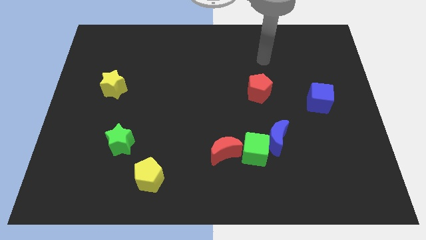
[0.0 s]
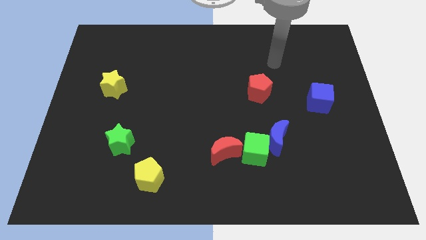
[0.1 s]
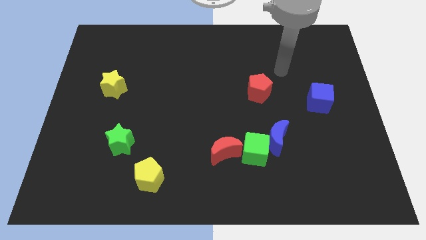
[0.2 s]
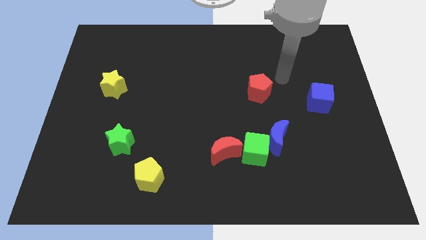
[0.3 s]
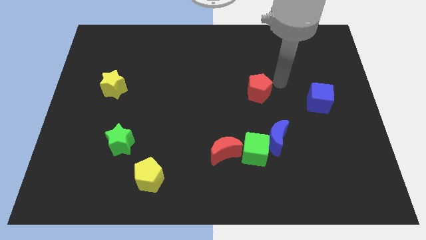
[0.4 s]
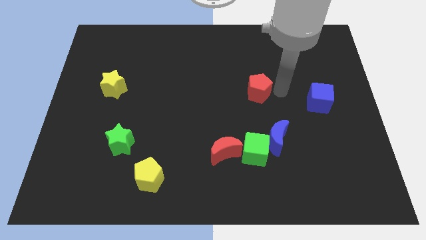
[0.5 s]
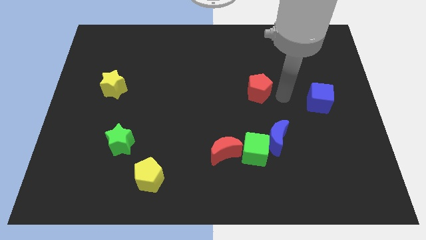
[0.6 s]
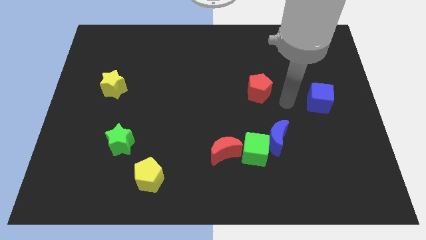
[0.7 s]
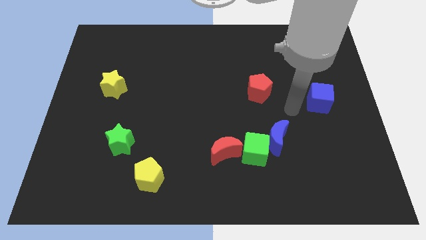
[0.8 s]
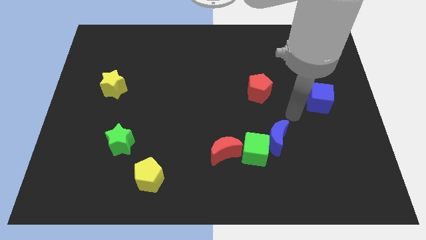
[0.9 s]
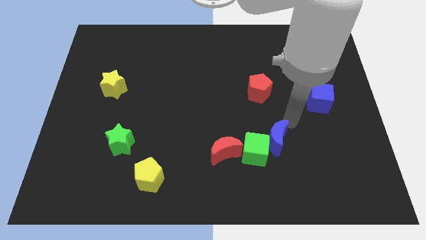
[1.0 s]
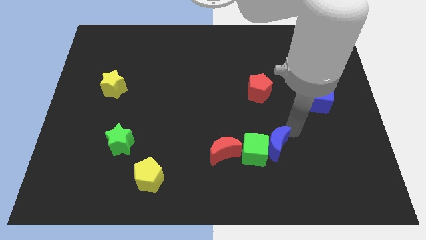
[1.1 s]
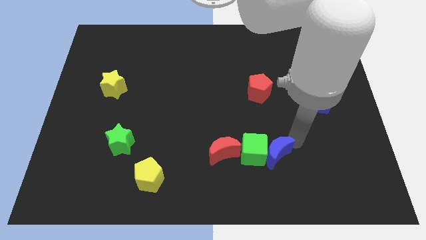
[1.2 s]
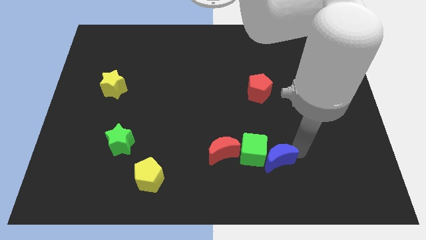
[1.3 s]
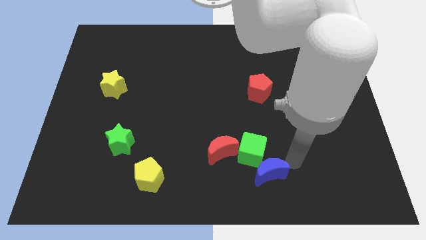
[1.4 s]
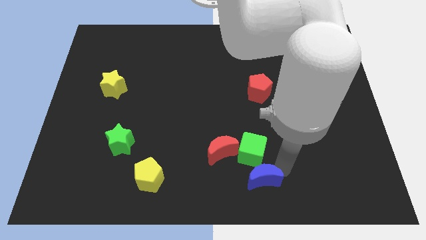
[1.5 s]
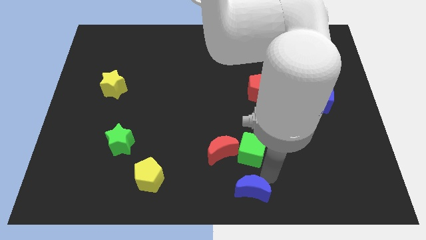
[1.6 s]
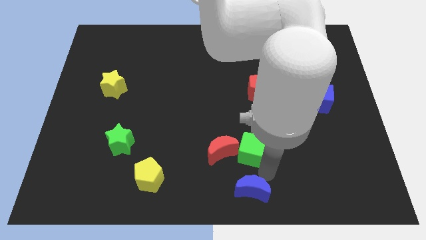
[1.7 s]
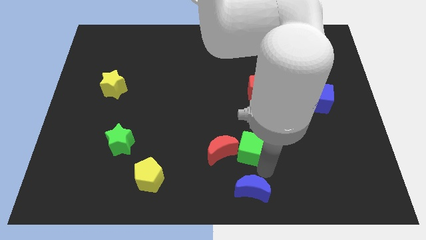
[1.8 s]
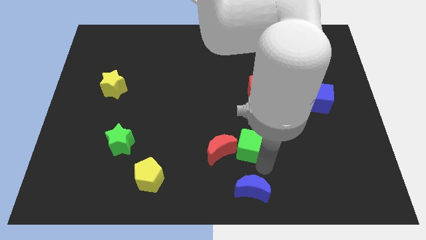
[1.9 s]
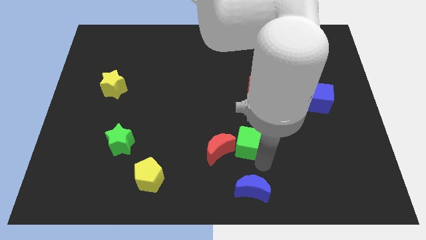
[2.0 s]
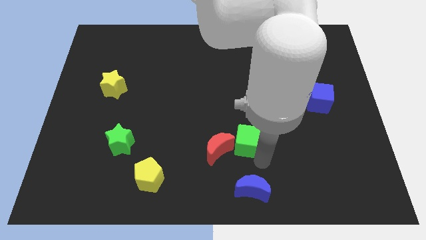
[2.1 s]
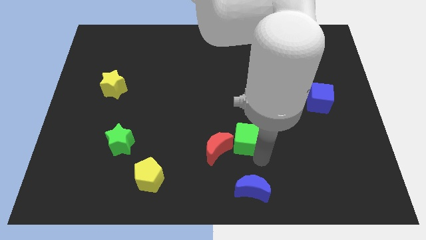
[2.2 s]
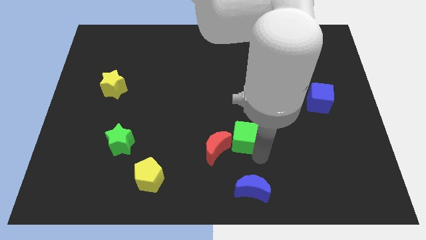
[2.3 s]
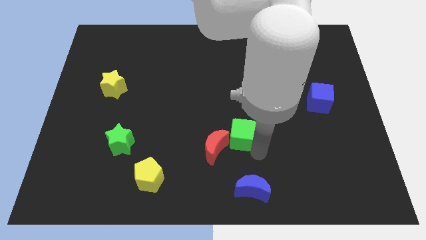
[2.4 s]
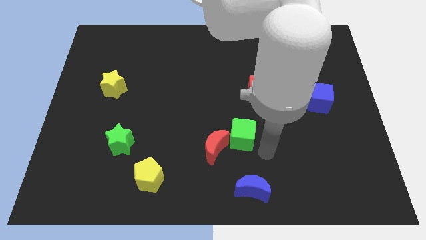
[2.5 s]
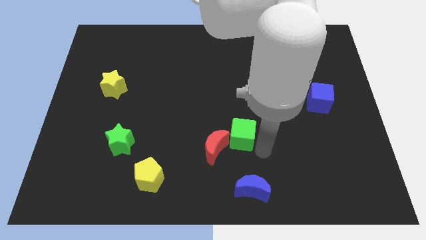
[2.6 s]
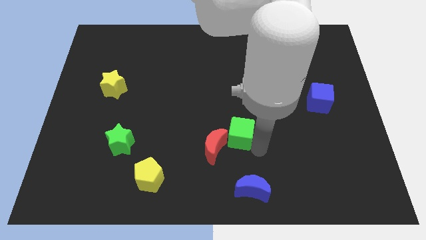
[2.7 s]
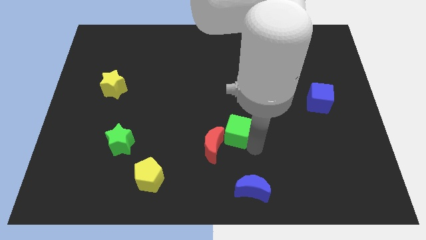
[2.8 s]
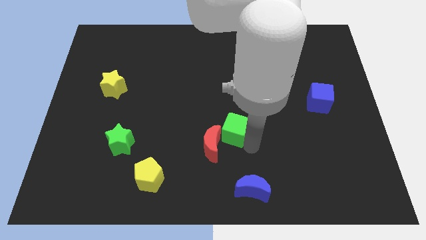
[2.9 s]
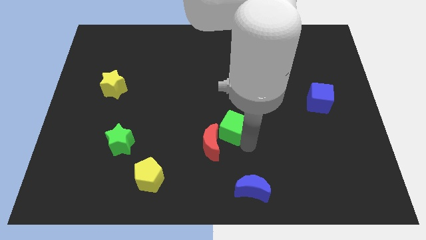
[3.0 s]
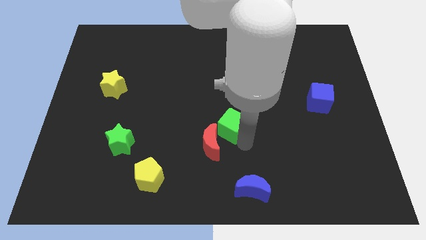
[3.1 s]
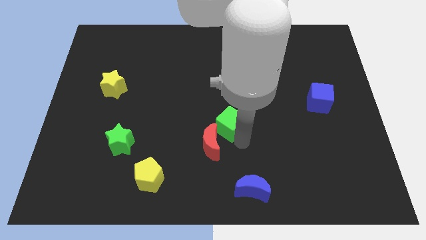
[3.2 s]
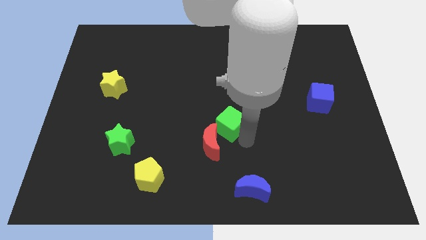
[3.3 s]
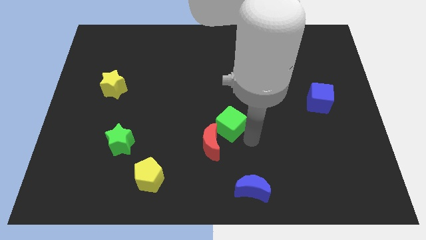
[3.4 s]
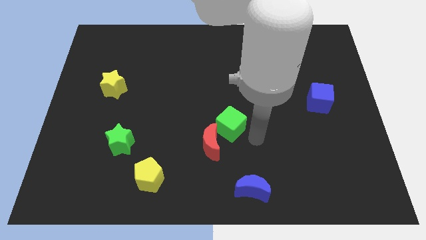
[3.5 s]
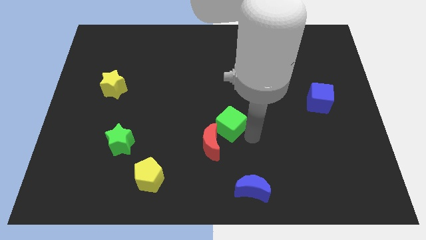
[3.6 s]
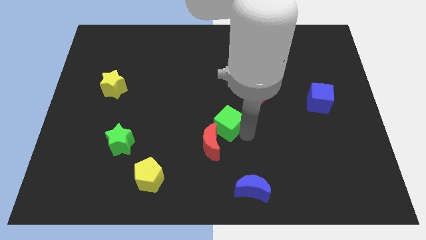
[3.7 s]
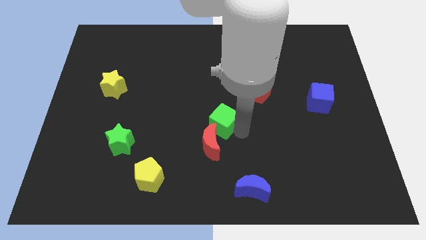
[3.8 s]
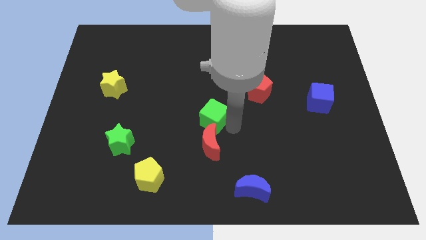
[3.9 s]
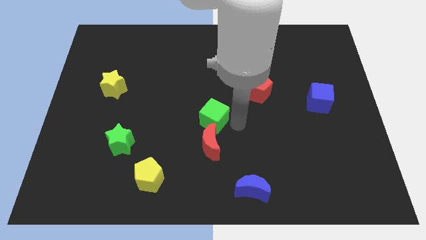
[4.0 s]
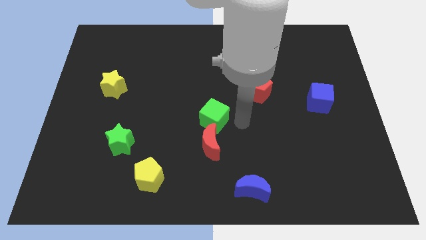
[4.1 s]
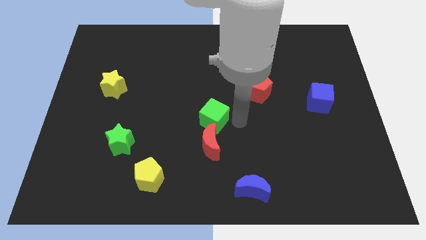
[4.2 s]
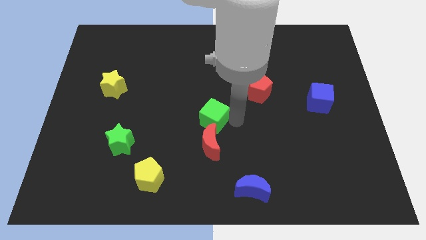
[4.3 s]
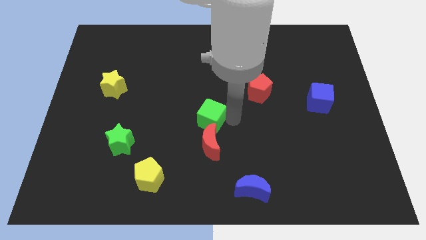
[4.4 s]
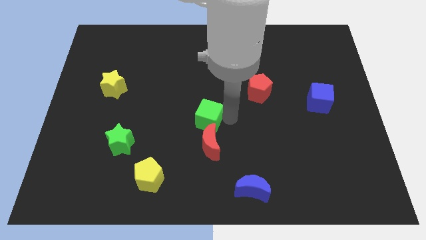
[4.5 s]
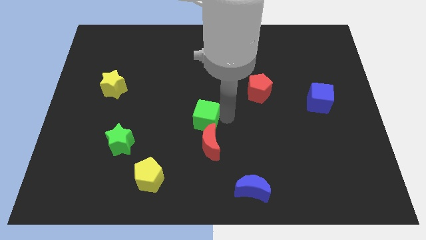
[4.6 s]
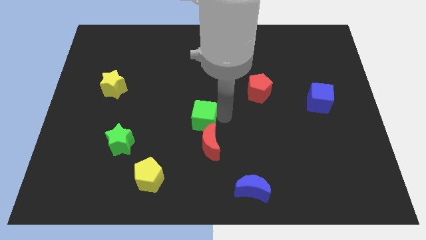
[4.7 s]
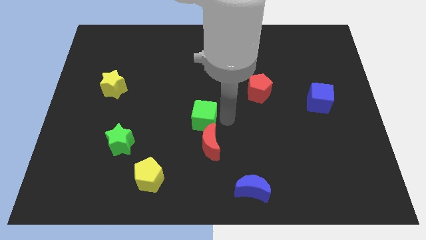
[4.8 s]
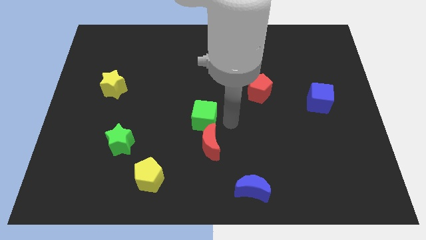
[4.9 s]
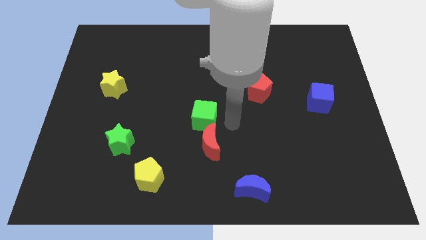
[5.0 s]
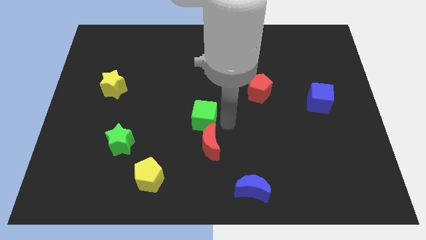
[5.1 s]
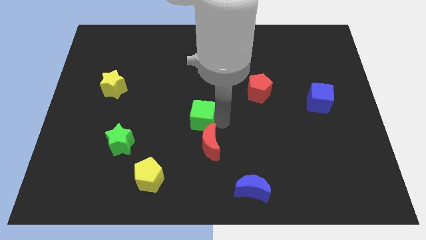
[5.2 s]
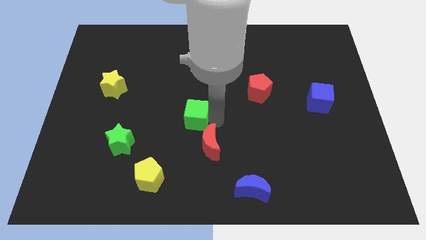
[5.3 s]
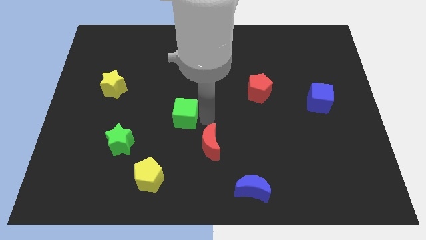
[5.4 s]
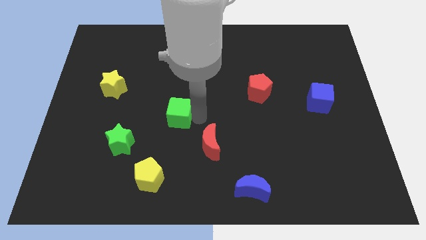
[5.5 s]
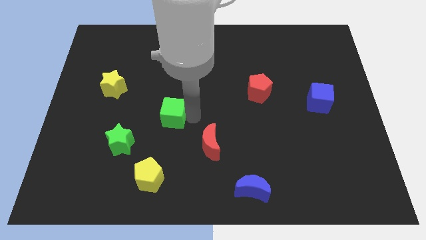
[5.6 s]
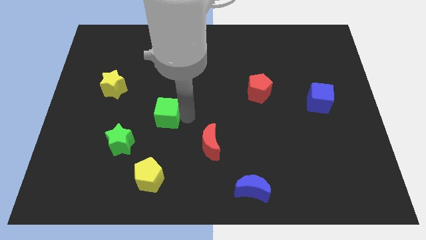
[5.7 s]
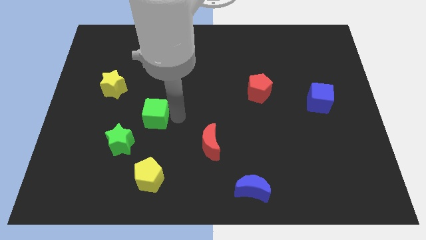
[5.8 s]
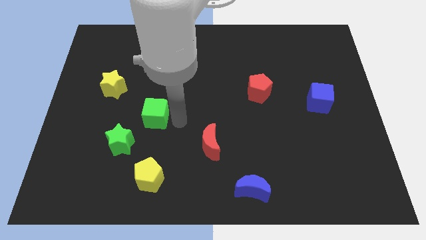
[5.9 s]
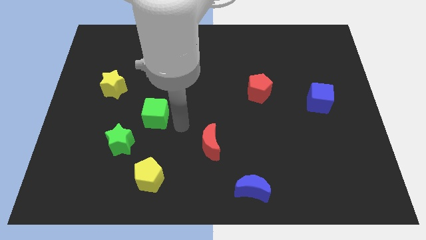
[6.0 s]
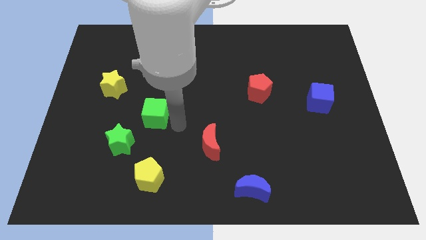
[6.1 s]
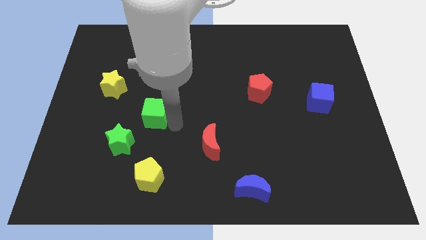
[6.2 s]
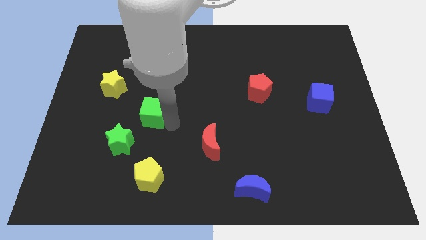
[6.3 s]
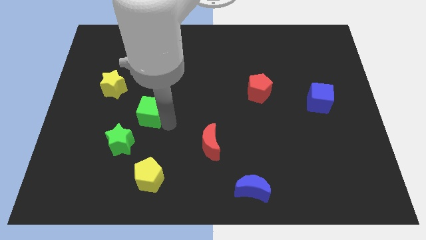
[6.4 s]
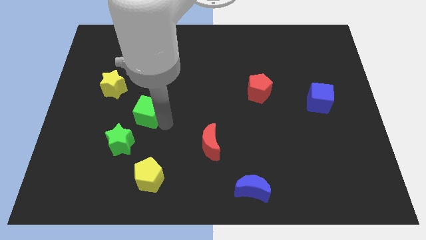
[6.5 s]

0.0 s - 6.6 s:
move the green cube above the green star

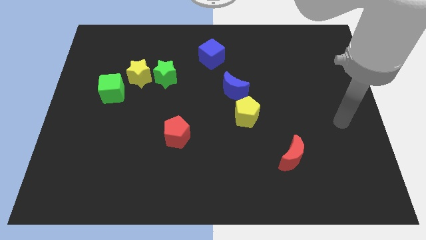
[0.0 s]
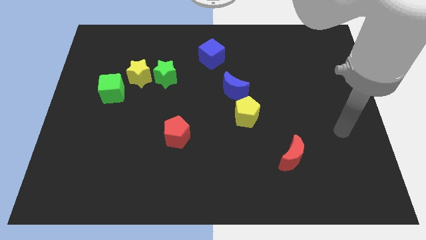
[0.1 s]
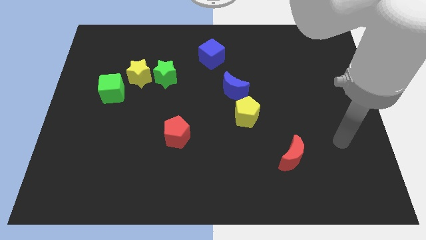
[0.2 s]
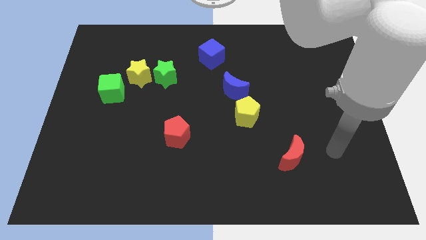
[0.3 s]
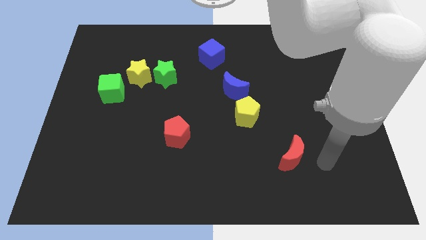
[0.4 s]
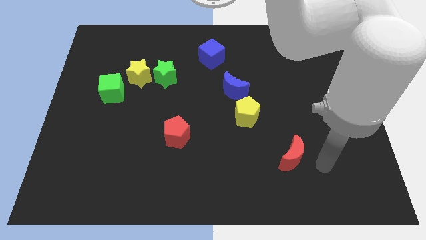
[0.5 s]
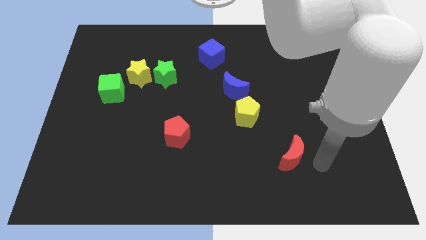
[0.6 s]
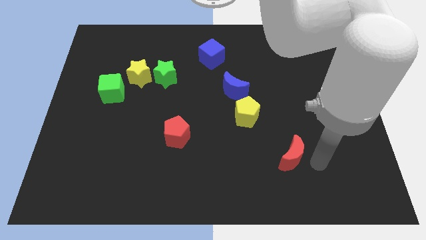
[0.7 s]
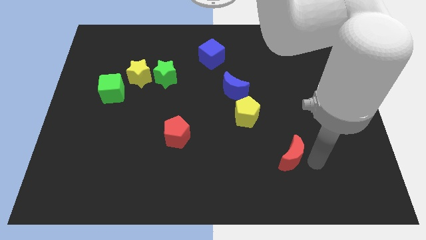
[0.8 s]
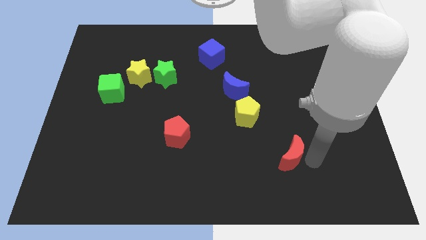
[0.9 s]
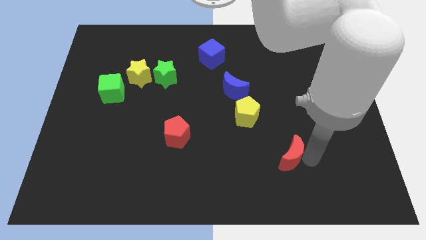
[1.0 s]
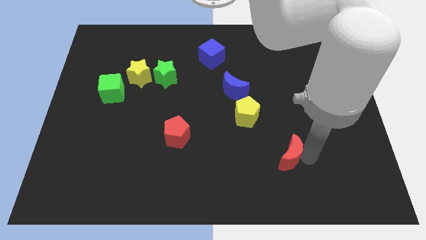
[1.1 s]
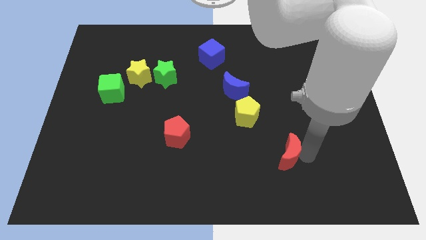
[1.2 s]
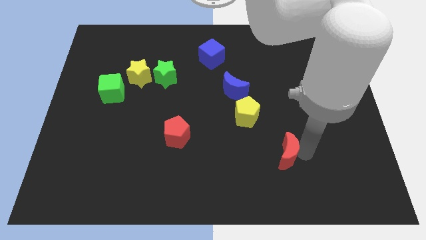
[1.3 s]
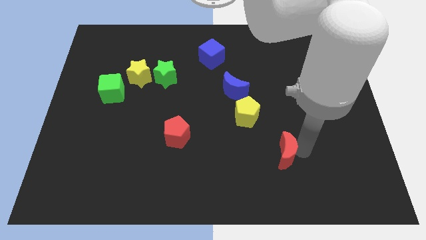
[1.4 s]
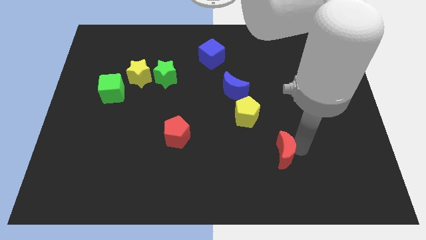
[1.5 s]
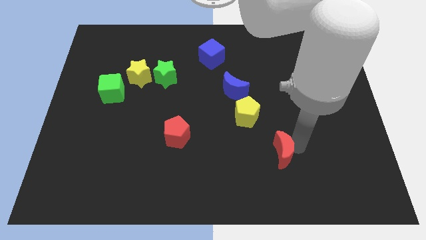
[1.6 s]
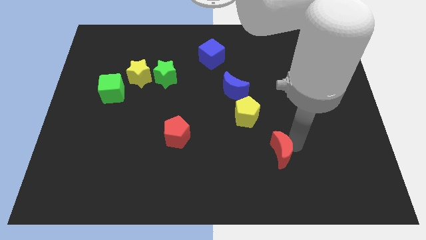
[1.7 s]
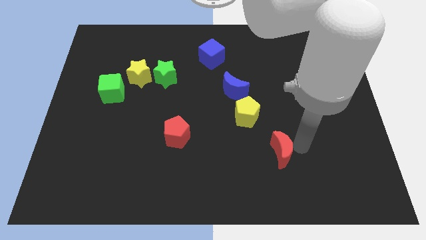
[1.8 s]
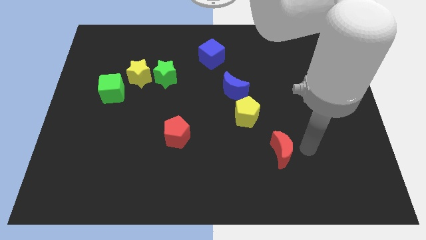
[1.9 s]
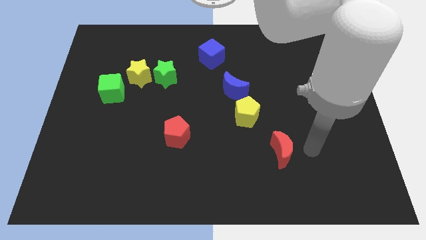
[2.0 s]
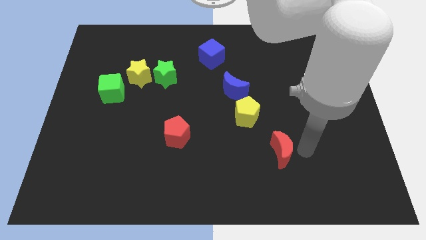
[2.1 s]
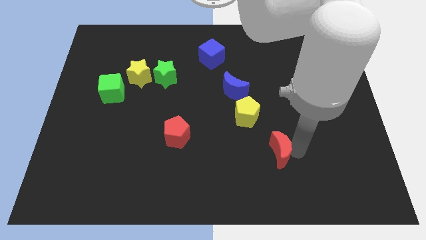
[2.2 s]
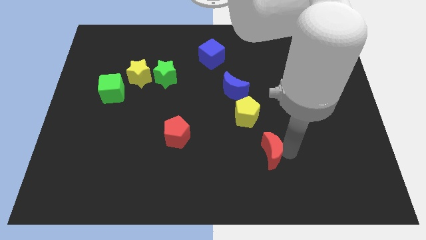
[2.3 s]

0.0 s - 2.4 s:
slide the red moon to the bottom of the yellow pentagon
